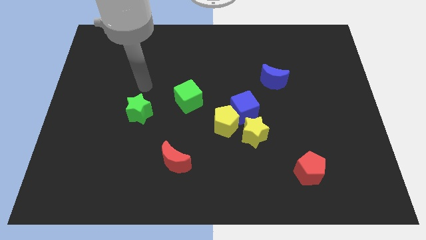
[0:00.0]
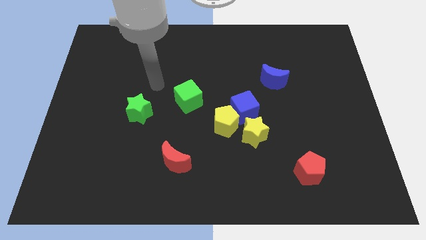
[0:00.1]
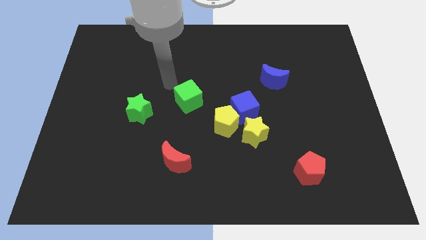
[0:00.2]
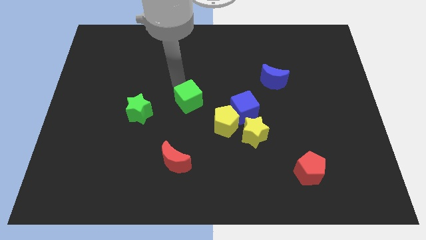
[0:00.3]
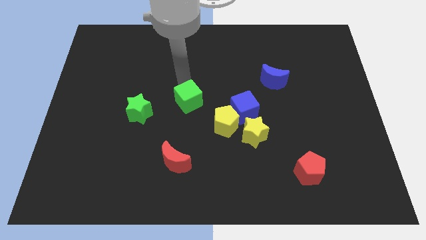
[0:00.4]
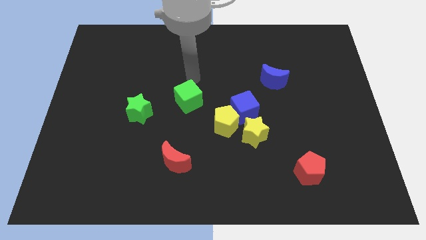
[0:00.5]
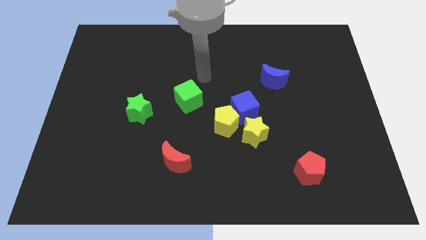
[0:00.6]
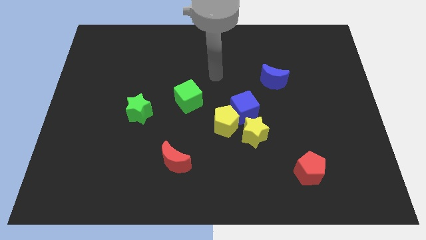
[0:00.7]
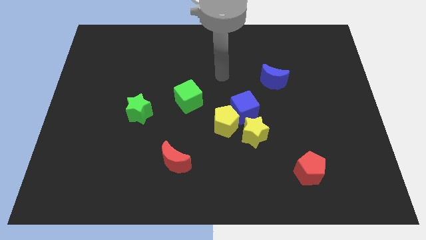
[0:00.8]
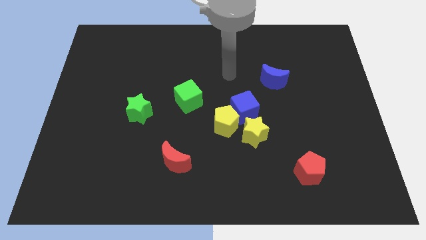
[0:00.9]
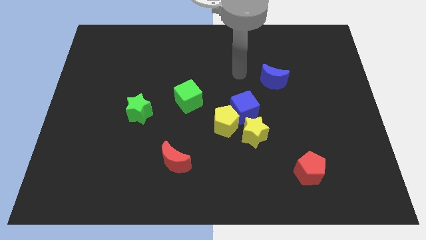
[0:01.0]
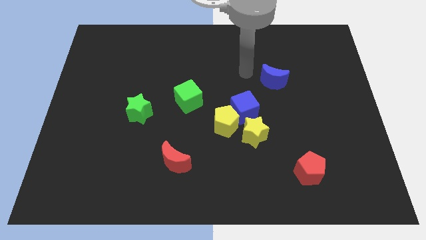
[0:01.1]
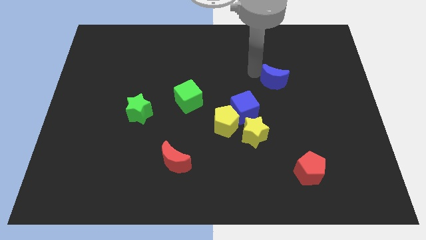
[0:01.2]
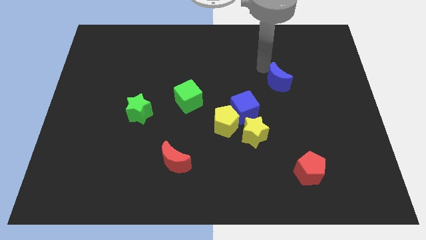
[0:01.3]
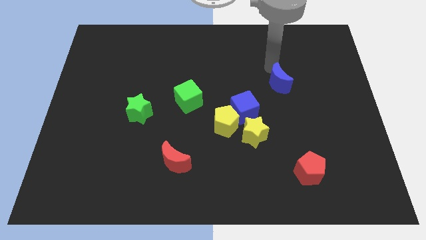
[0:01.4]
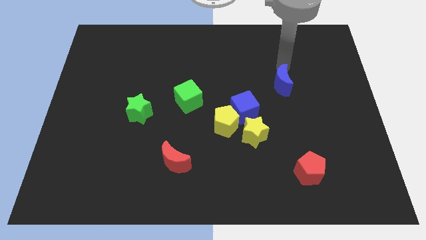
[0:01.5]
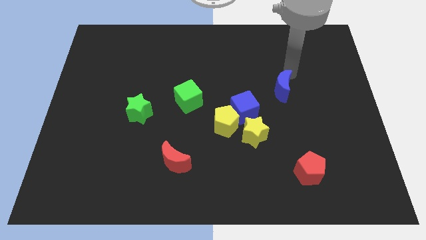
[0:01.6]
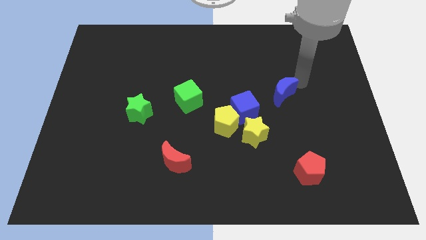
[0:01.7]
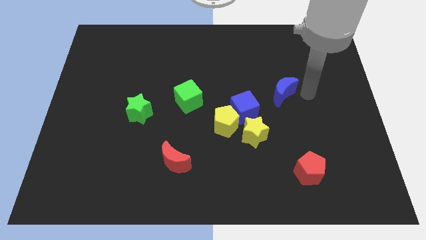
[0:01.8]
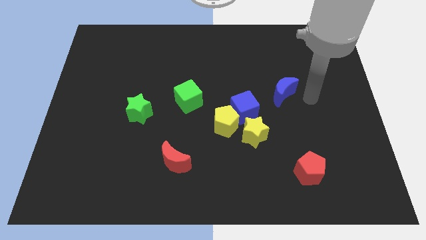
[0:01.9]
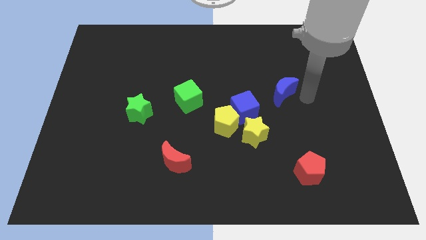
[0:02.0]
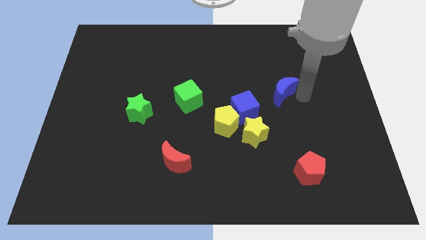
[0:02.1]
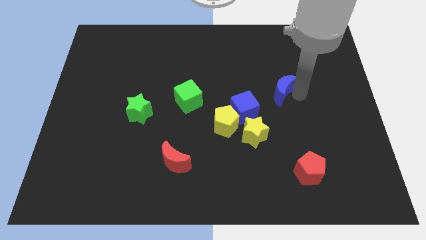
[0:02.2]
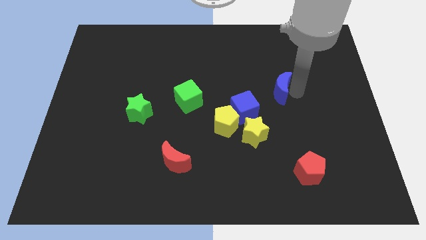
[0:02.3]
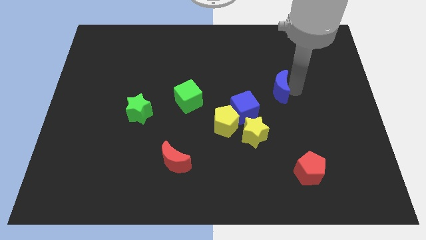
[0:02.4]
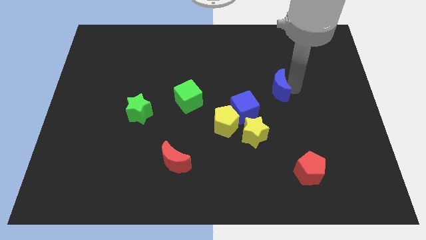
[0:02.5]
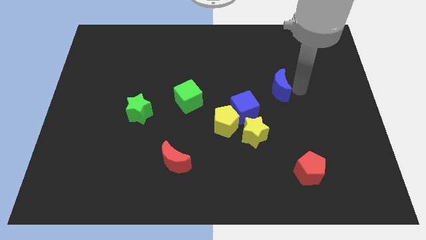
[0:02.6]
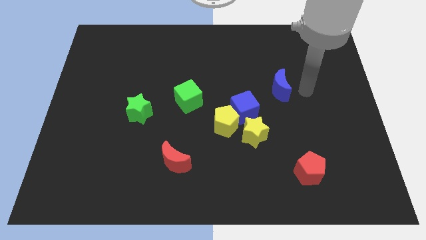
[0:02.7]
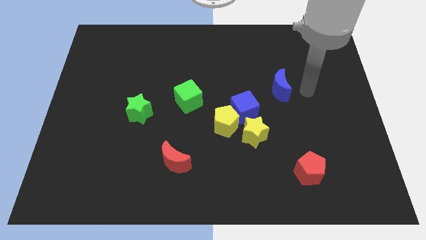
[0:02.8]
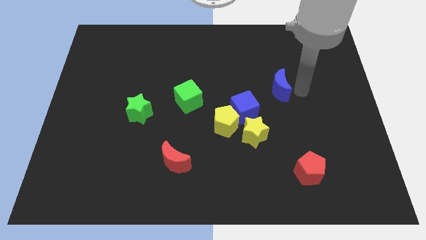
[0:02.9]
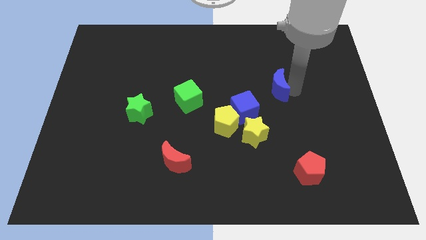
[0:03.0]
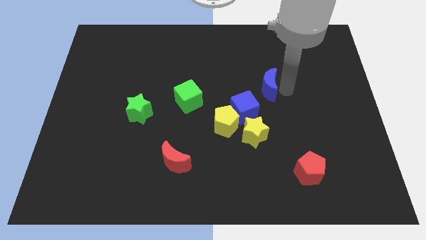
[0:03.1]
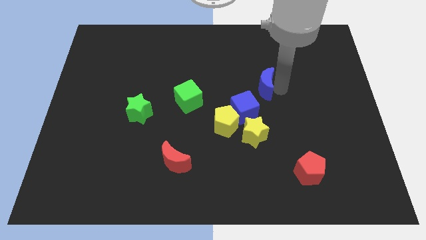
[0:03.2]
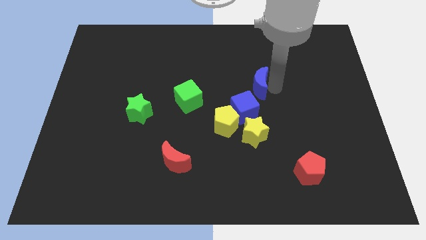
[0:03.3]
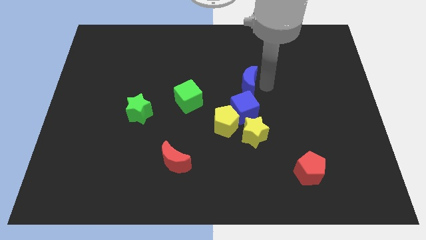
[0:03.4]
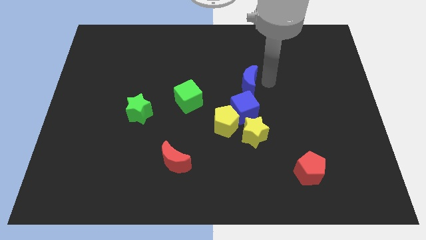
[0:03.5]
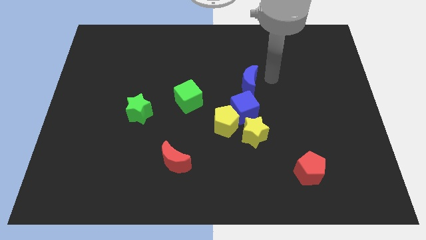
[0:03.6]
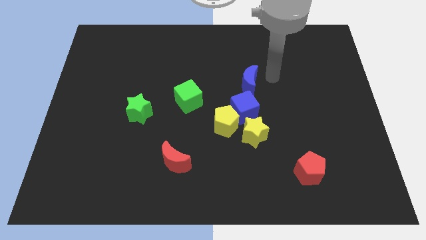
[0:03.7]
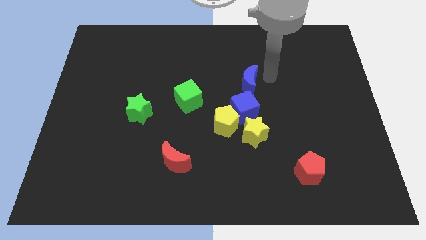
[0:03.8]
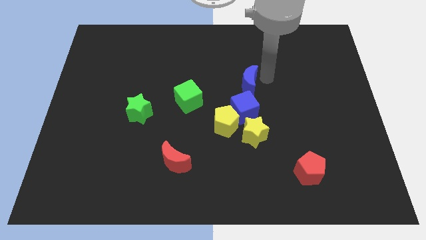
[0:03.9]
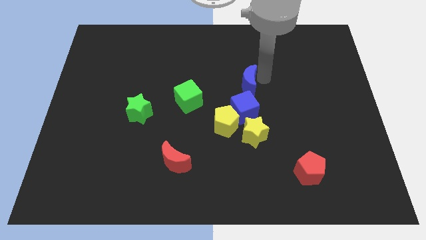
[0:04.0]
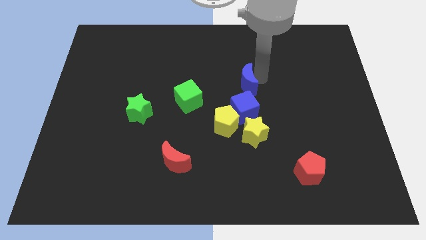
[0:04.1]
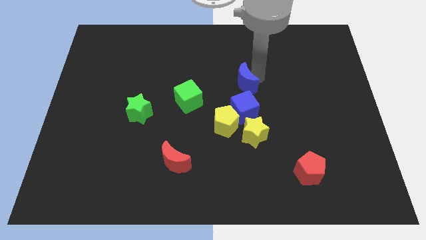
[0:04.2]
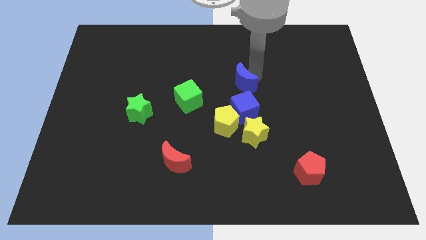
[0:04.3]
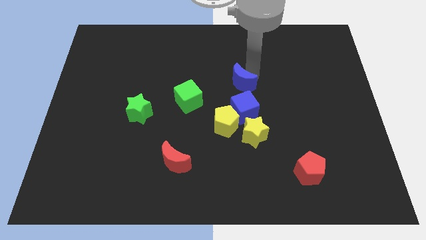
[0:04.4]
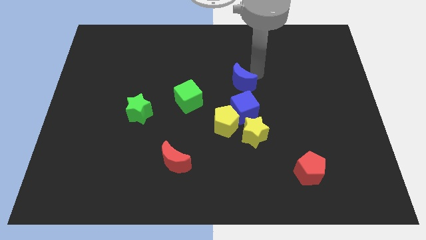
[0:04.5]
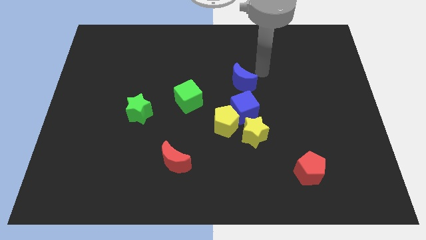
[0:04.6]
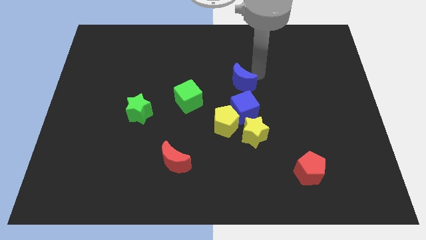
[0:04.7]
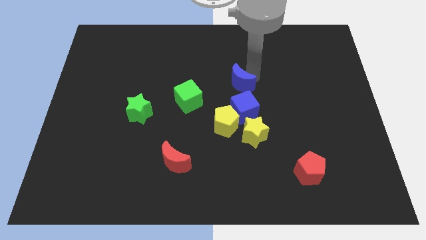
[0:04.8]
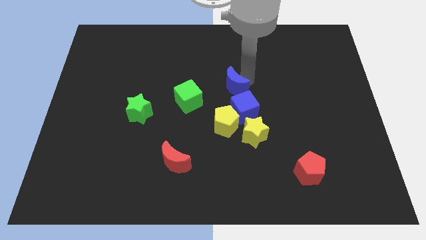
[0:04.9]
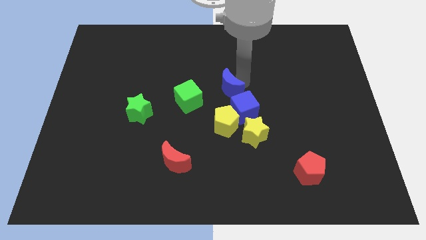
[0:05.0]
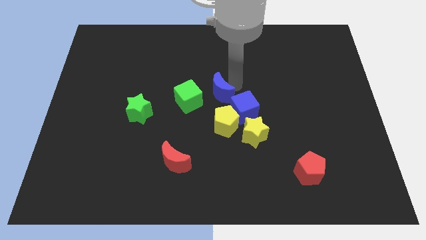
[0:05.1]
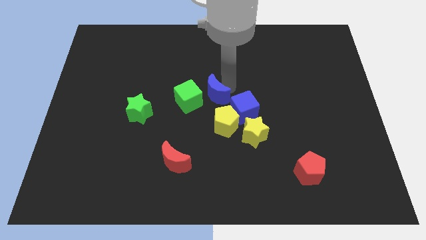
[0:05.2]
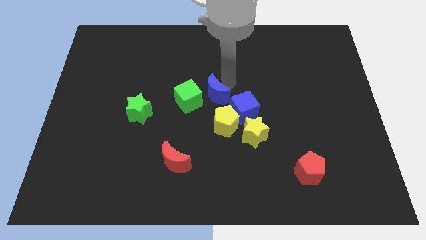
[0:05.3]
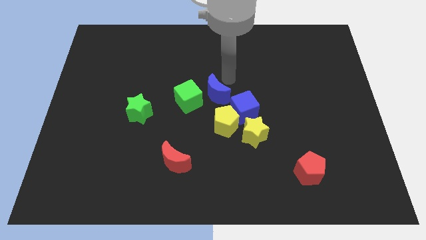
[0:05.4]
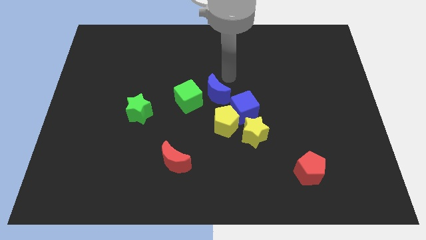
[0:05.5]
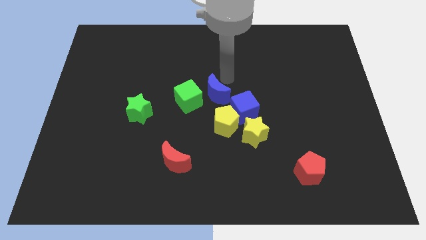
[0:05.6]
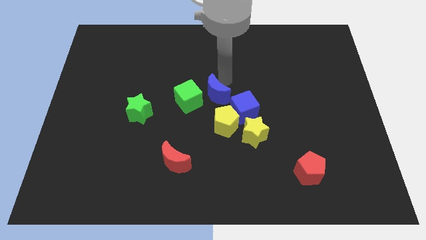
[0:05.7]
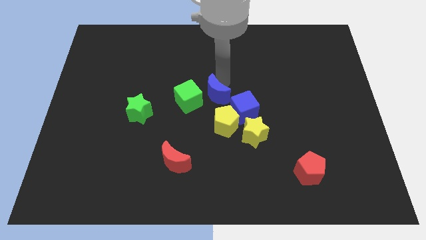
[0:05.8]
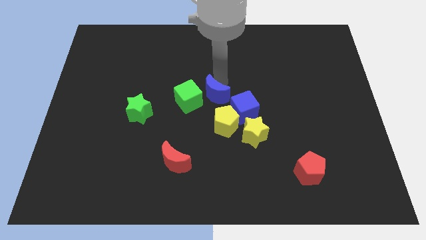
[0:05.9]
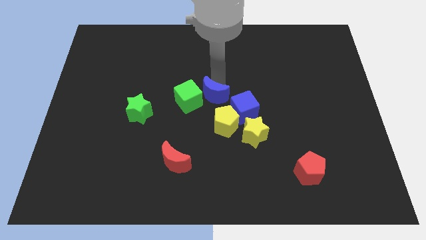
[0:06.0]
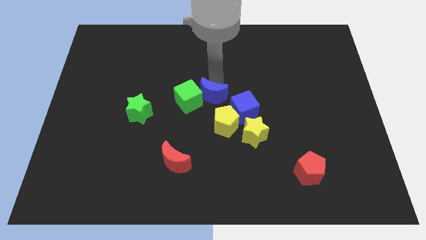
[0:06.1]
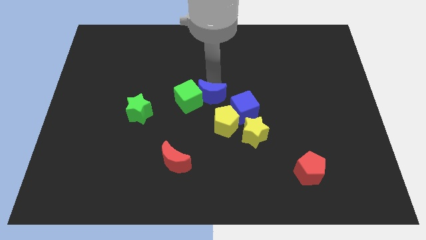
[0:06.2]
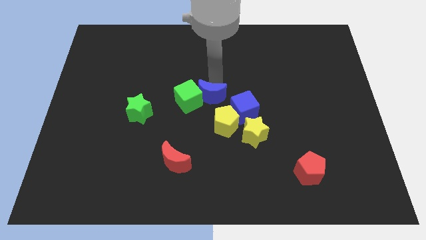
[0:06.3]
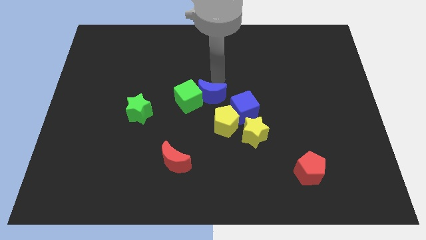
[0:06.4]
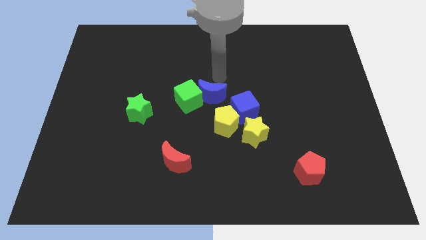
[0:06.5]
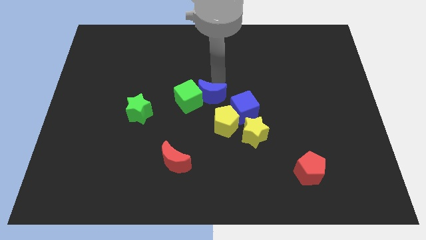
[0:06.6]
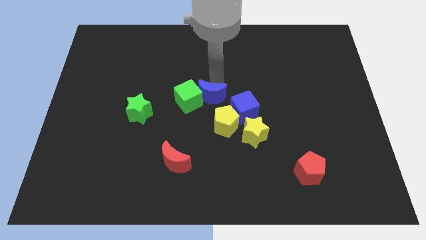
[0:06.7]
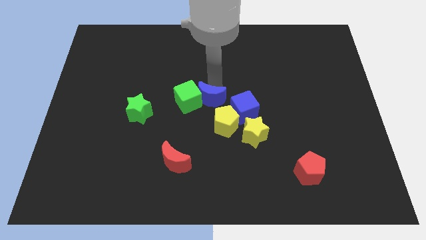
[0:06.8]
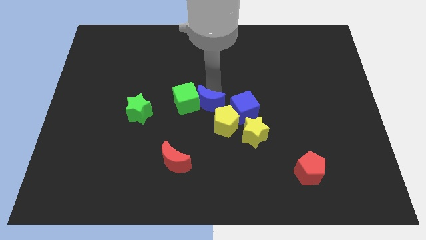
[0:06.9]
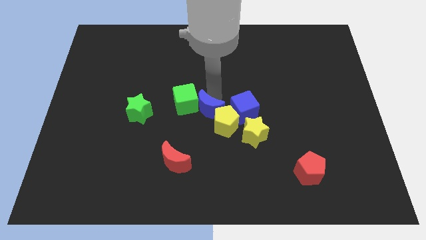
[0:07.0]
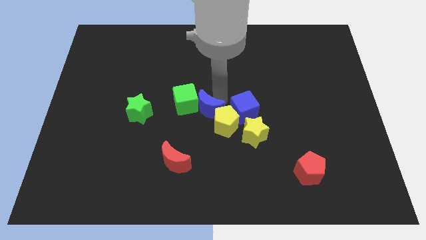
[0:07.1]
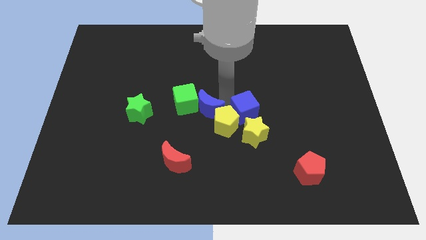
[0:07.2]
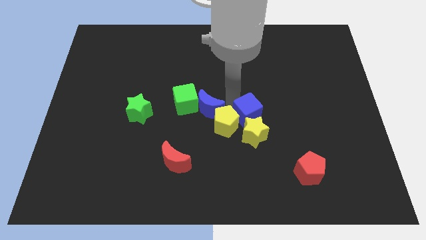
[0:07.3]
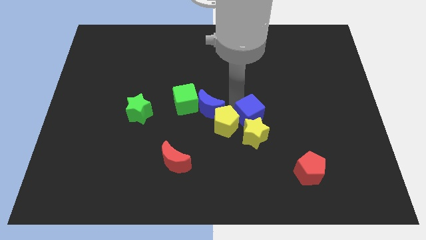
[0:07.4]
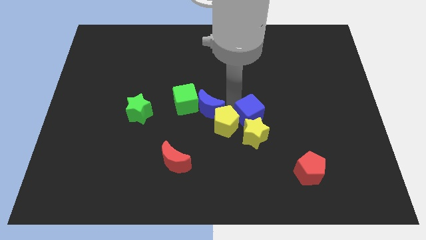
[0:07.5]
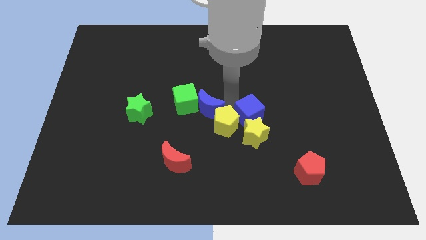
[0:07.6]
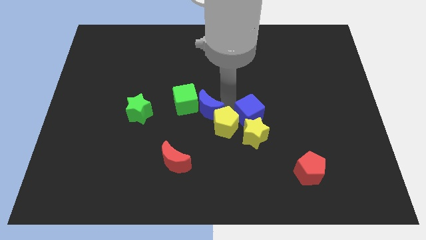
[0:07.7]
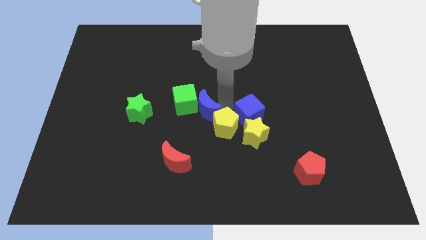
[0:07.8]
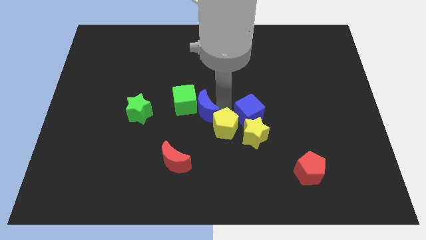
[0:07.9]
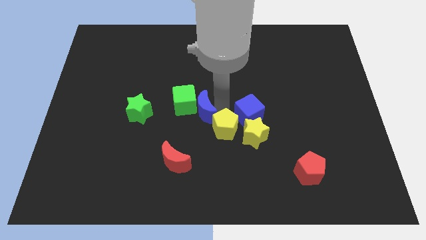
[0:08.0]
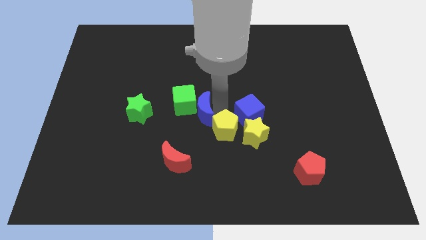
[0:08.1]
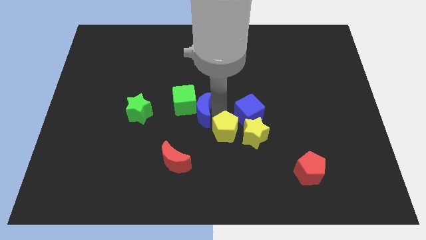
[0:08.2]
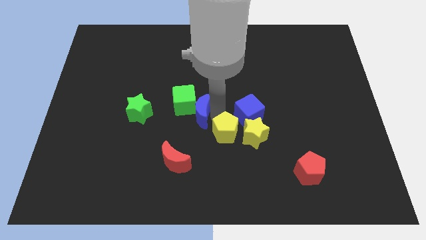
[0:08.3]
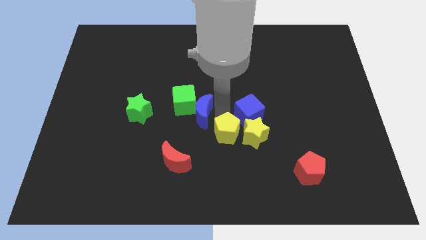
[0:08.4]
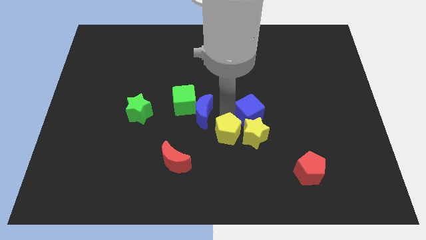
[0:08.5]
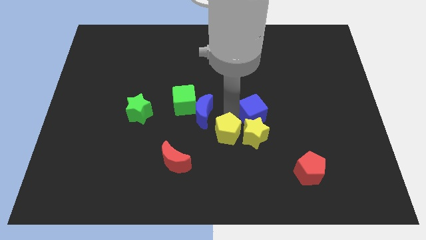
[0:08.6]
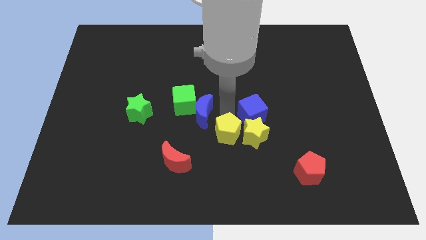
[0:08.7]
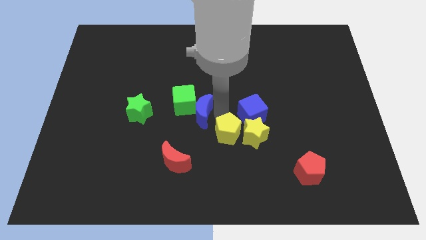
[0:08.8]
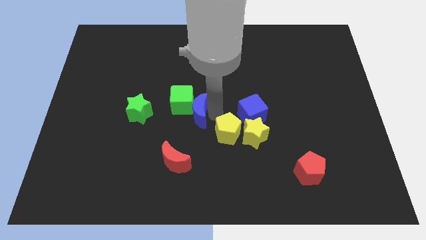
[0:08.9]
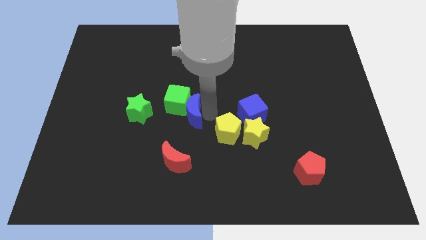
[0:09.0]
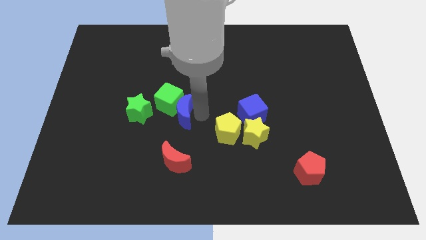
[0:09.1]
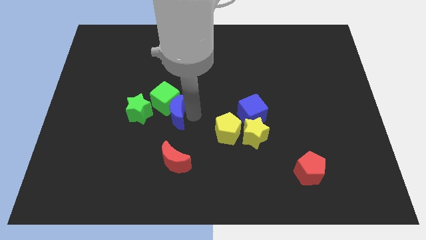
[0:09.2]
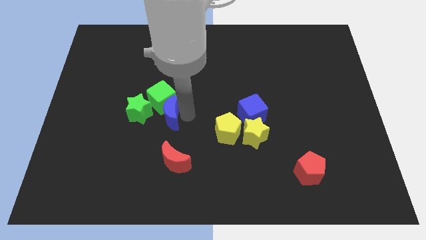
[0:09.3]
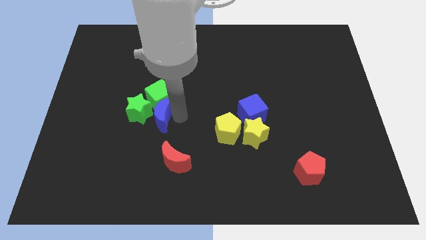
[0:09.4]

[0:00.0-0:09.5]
slide the blue moon close to the green star
